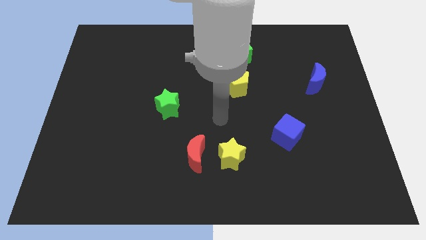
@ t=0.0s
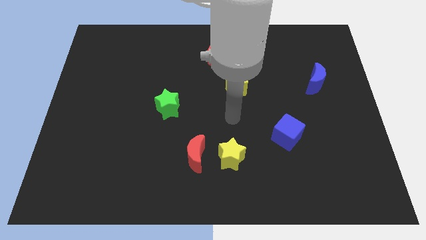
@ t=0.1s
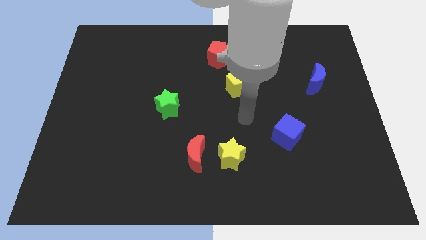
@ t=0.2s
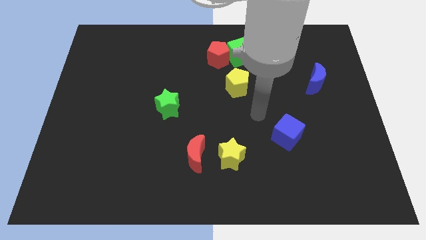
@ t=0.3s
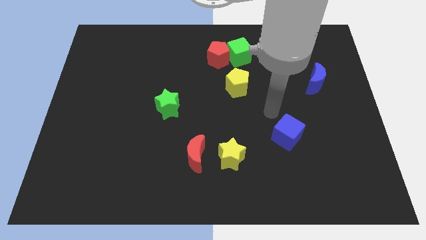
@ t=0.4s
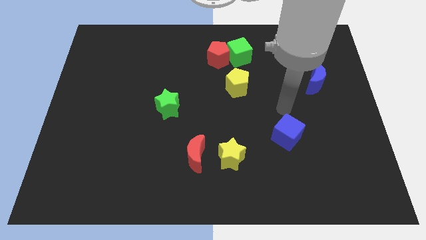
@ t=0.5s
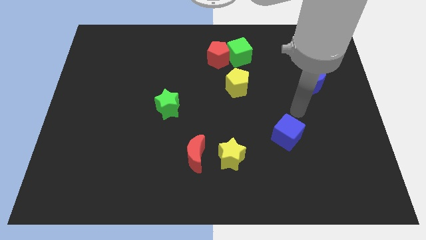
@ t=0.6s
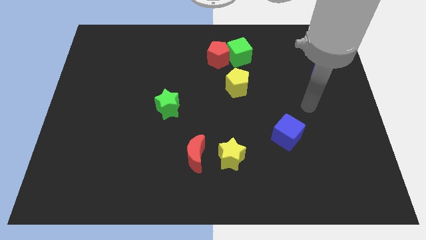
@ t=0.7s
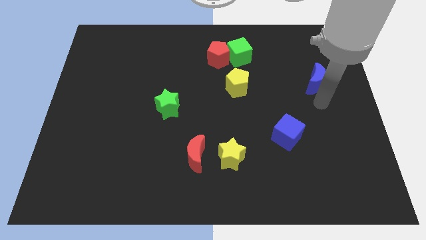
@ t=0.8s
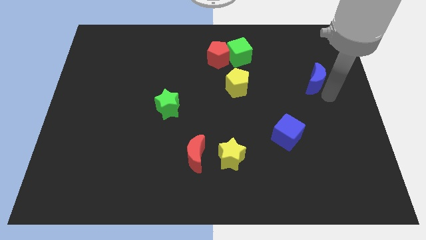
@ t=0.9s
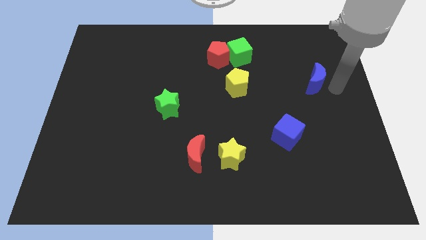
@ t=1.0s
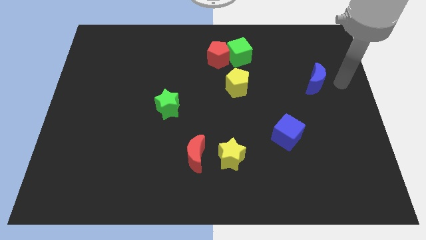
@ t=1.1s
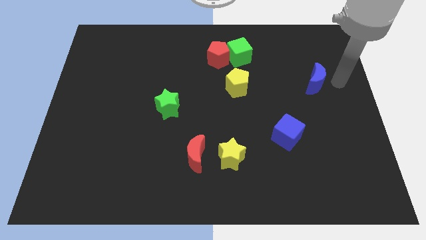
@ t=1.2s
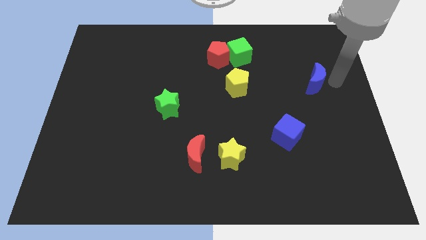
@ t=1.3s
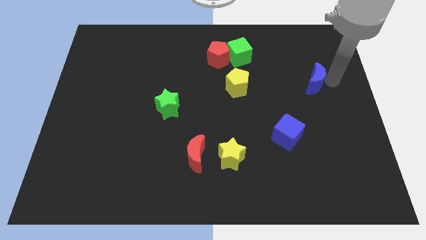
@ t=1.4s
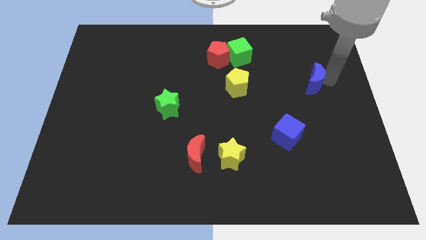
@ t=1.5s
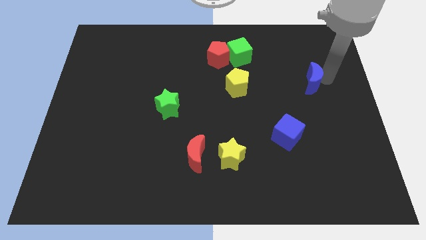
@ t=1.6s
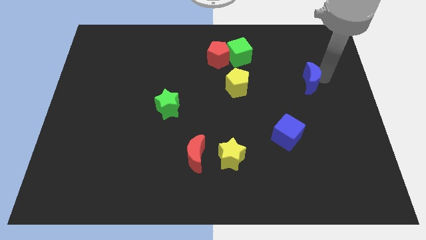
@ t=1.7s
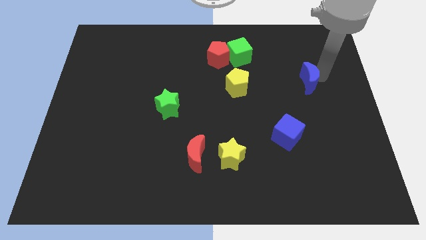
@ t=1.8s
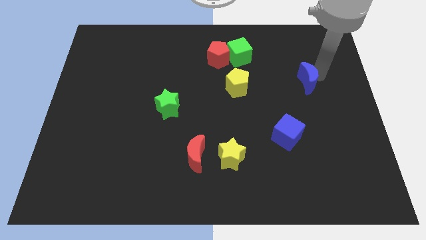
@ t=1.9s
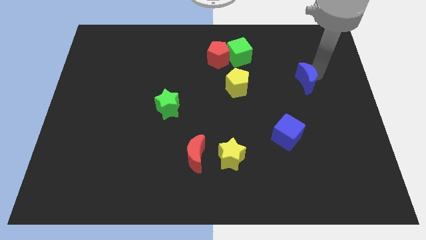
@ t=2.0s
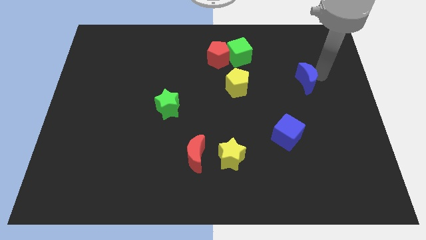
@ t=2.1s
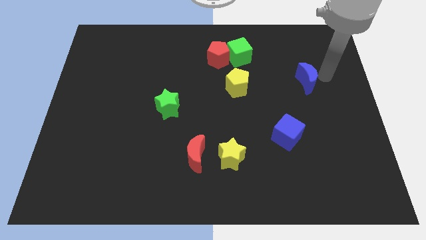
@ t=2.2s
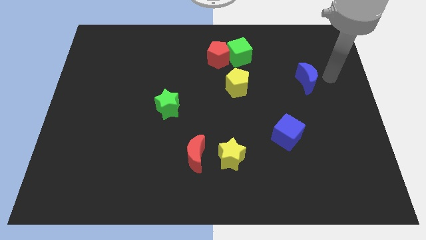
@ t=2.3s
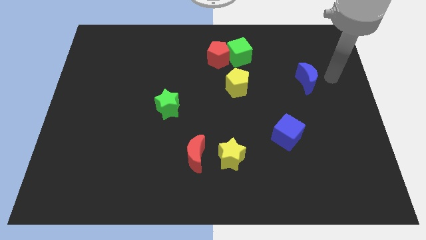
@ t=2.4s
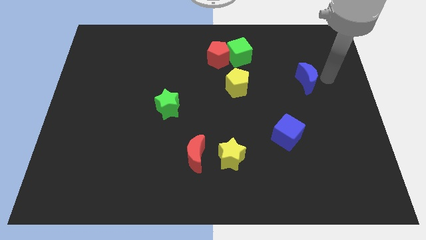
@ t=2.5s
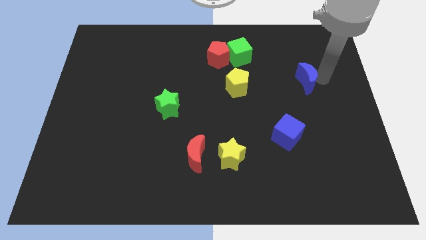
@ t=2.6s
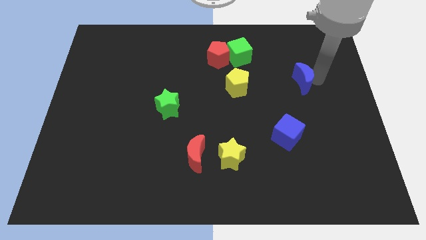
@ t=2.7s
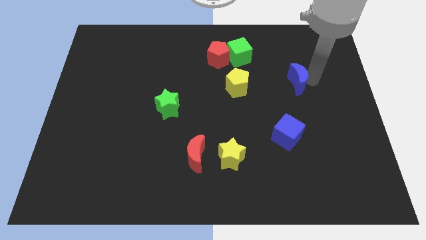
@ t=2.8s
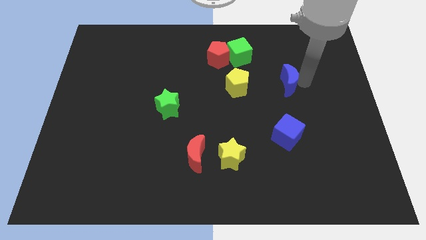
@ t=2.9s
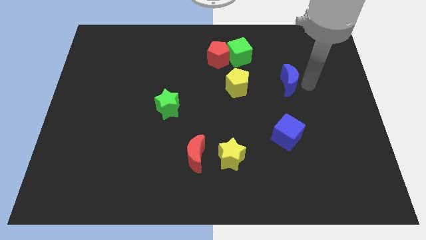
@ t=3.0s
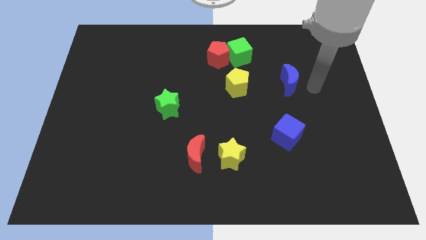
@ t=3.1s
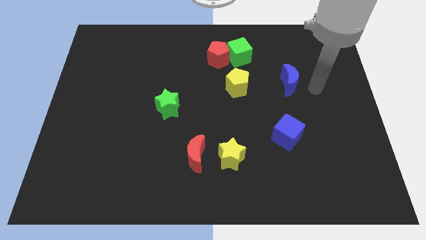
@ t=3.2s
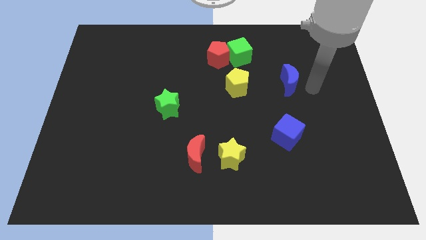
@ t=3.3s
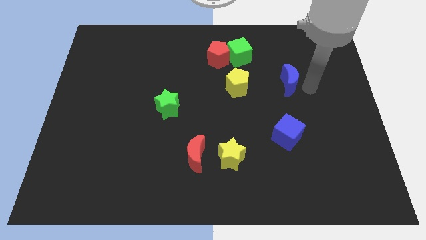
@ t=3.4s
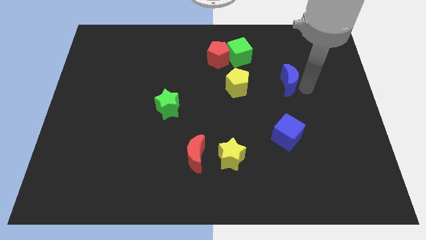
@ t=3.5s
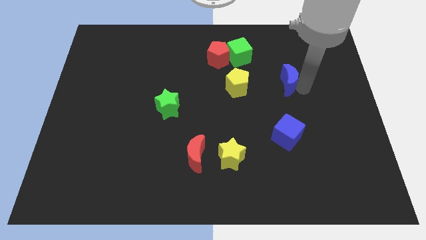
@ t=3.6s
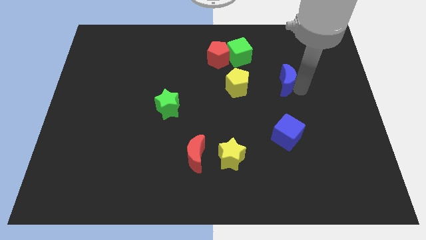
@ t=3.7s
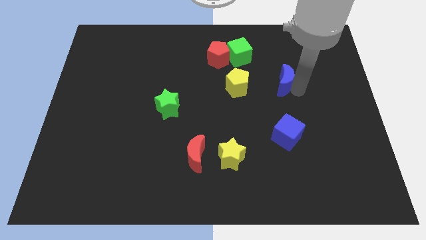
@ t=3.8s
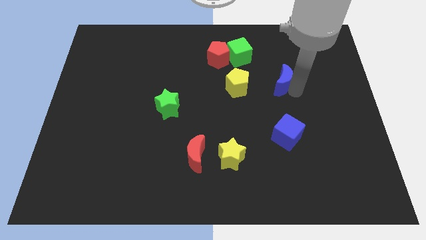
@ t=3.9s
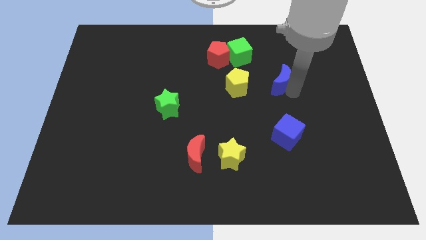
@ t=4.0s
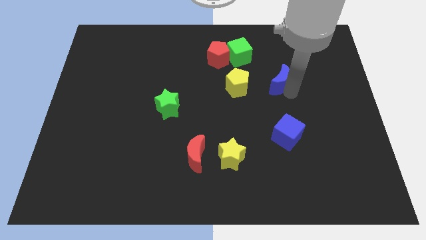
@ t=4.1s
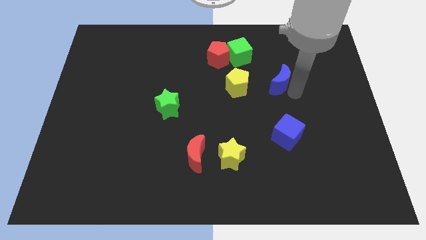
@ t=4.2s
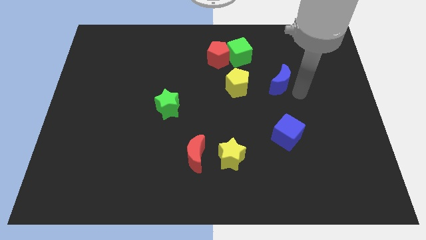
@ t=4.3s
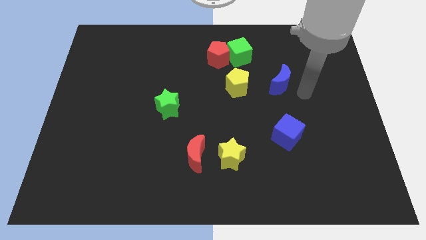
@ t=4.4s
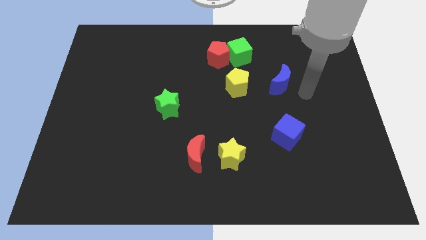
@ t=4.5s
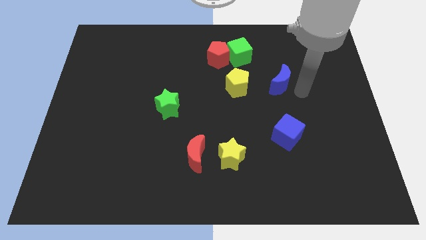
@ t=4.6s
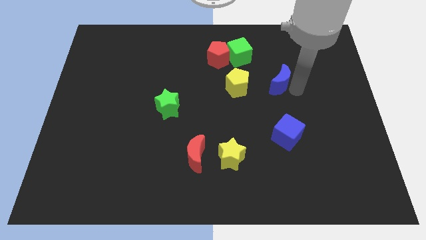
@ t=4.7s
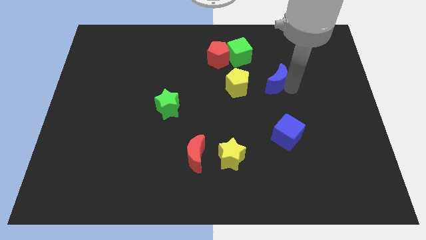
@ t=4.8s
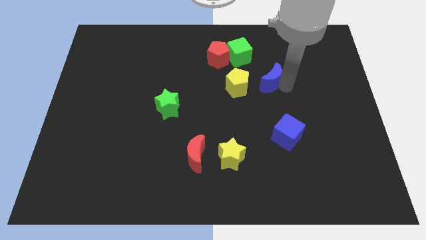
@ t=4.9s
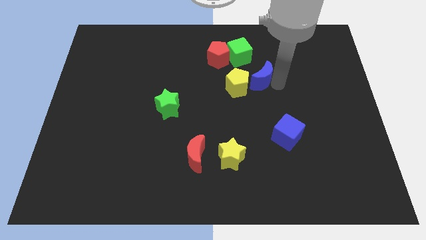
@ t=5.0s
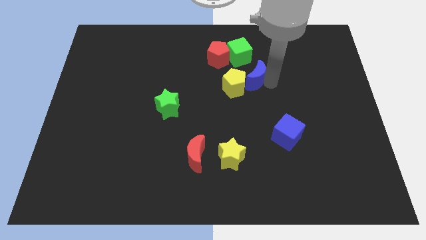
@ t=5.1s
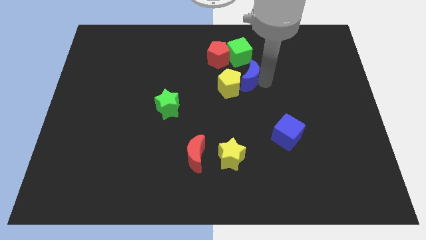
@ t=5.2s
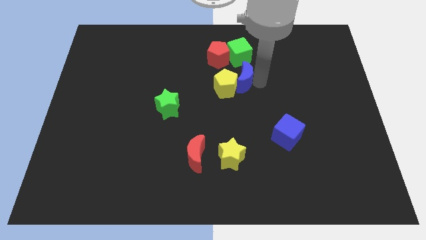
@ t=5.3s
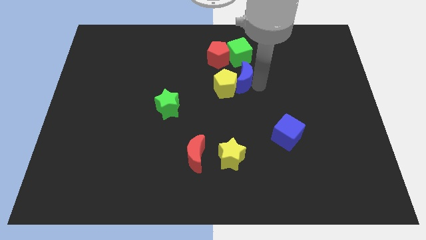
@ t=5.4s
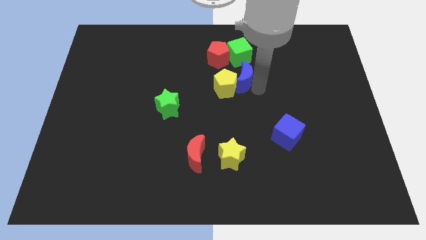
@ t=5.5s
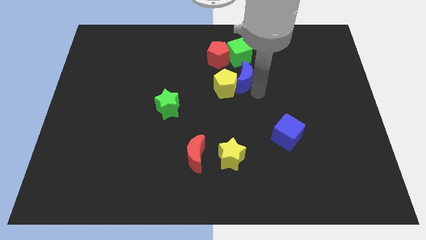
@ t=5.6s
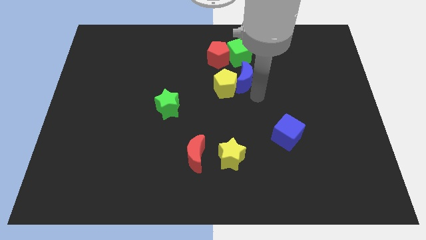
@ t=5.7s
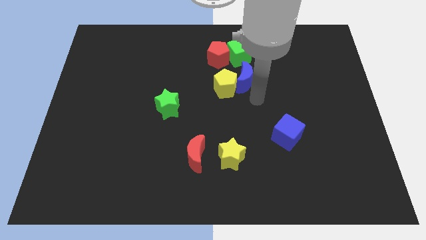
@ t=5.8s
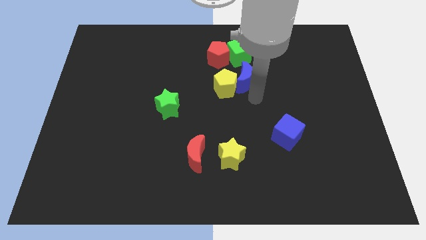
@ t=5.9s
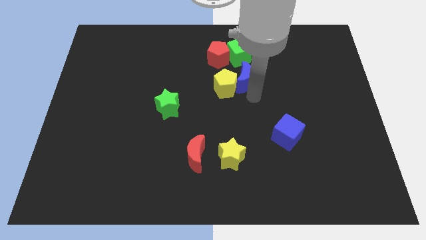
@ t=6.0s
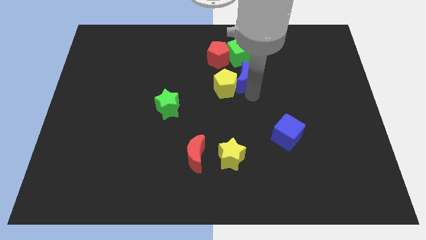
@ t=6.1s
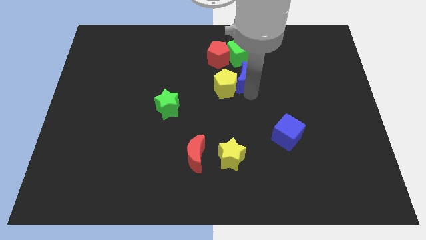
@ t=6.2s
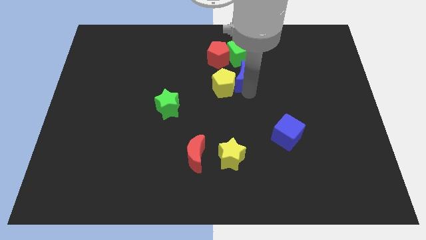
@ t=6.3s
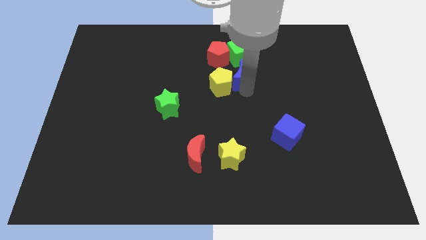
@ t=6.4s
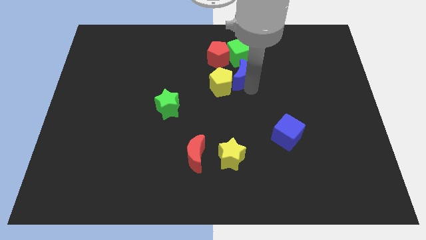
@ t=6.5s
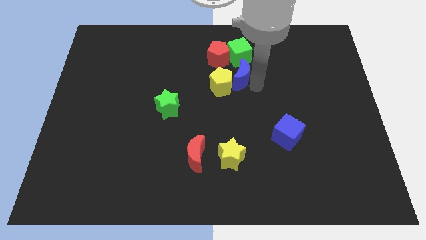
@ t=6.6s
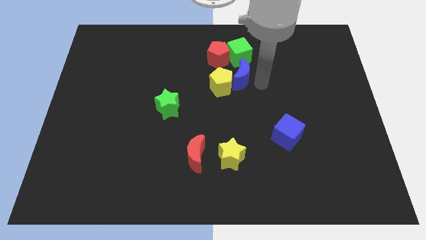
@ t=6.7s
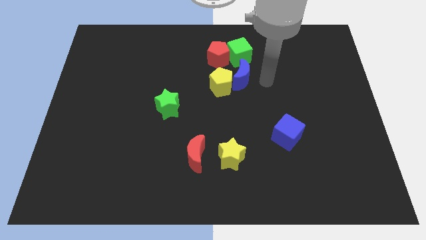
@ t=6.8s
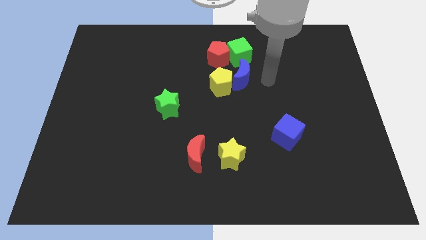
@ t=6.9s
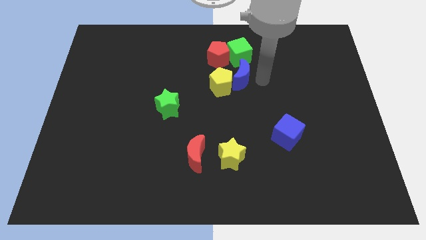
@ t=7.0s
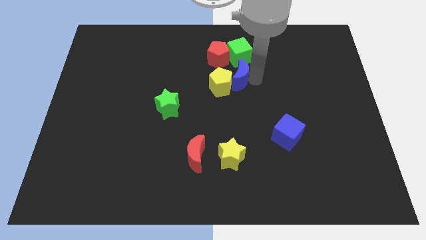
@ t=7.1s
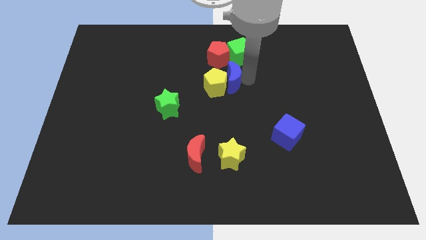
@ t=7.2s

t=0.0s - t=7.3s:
push the blue moon to the left

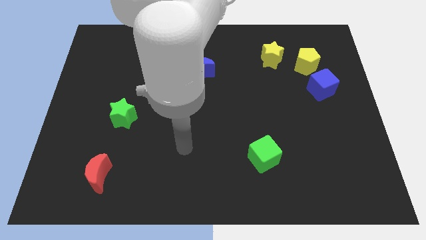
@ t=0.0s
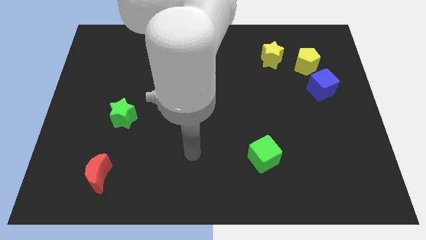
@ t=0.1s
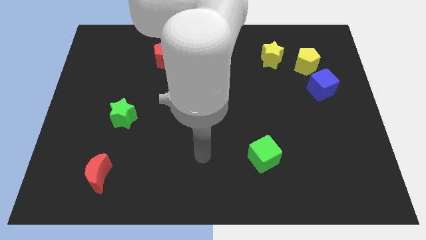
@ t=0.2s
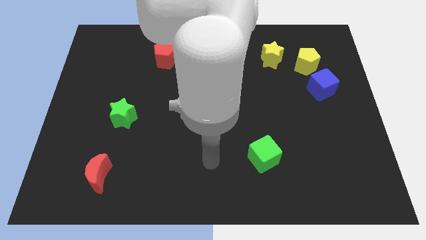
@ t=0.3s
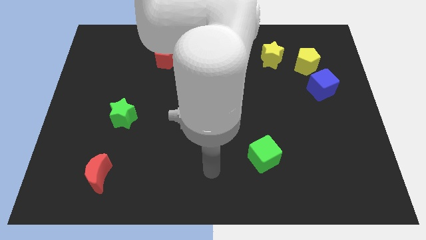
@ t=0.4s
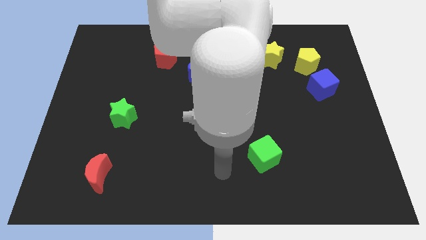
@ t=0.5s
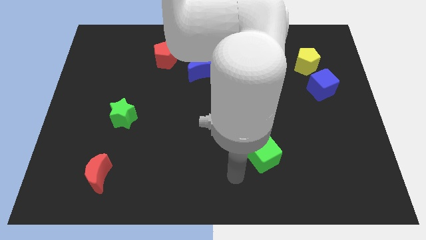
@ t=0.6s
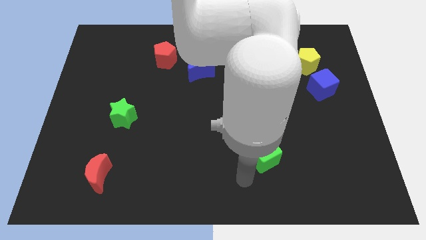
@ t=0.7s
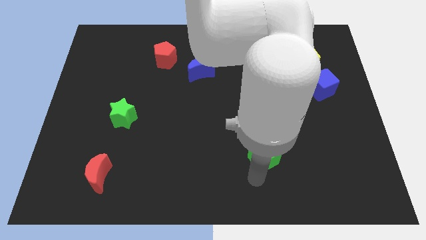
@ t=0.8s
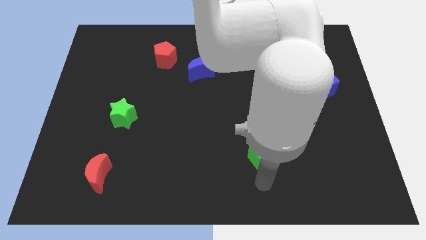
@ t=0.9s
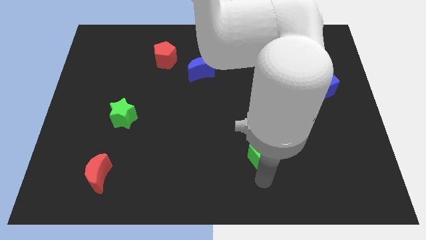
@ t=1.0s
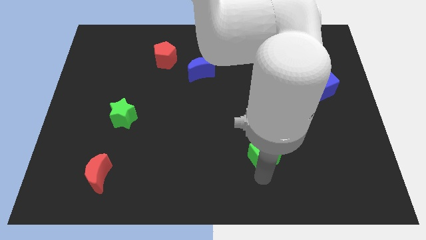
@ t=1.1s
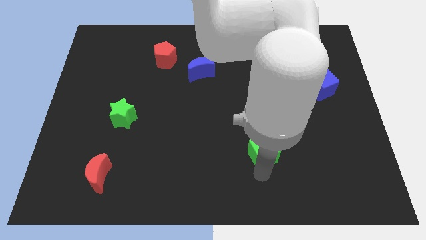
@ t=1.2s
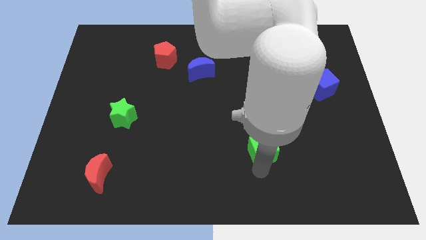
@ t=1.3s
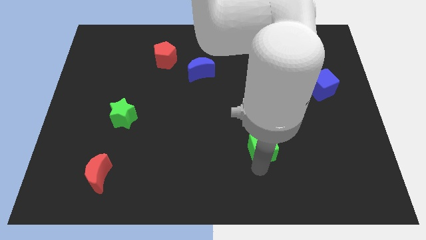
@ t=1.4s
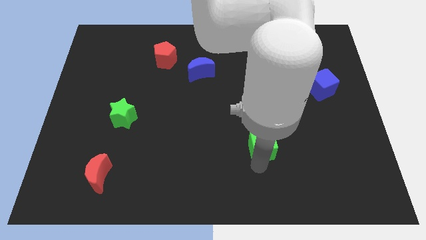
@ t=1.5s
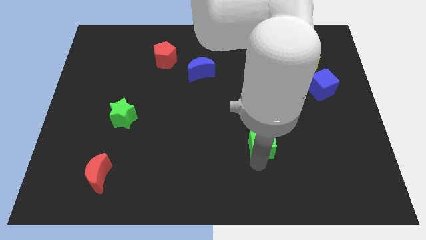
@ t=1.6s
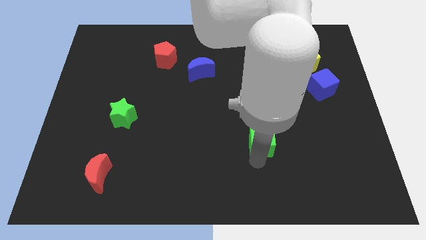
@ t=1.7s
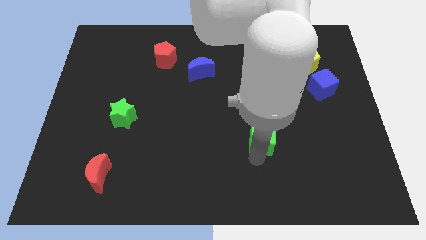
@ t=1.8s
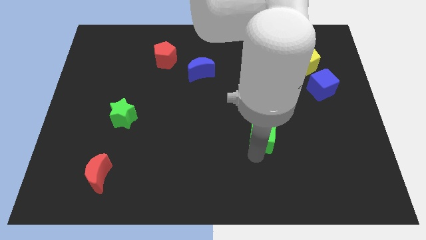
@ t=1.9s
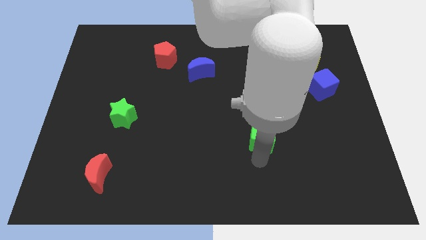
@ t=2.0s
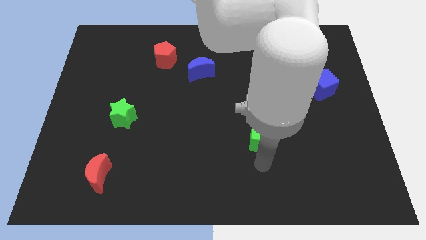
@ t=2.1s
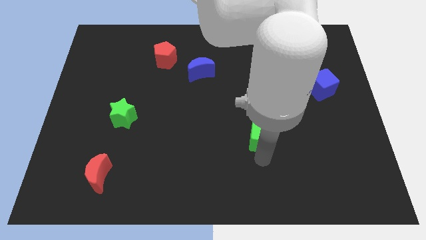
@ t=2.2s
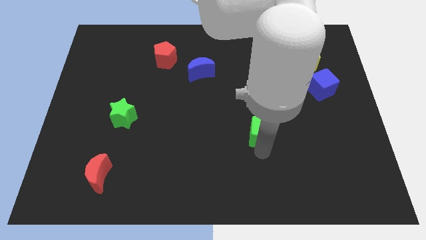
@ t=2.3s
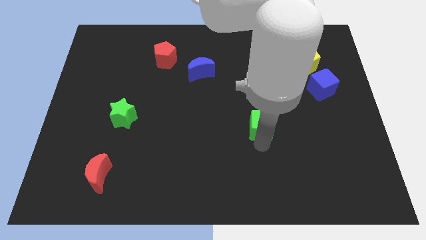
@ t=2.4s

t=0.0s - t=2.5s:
slide the green cube somewhat upwards
